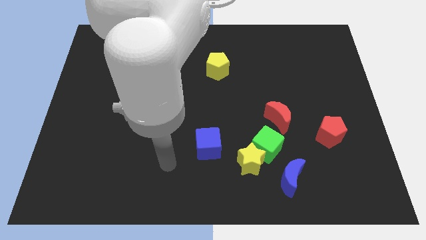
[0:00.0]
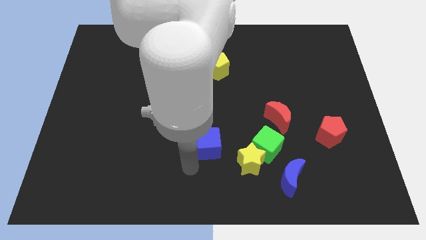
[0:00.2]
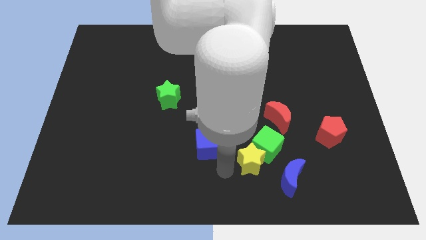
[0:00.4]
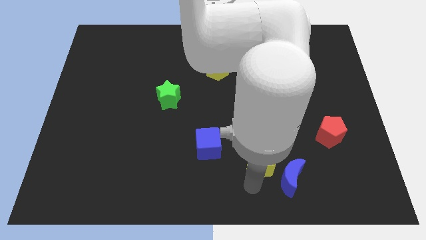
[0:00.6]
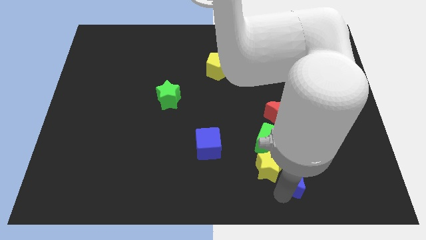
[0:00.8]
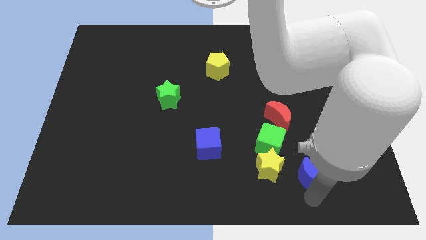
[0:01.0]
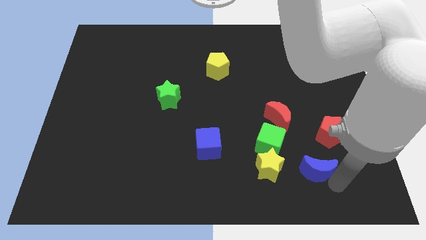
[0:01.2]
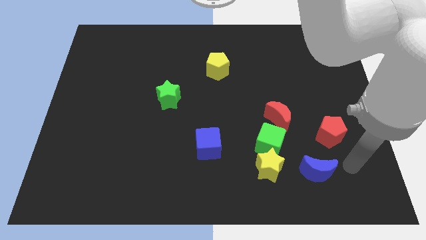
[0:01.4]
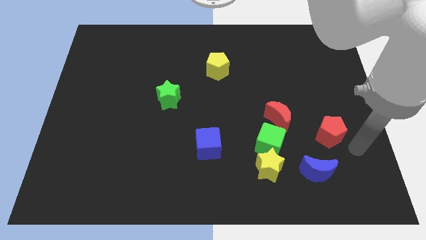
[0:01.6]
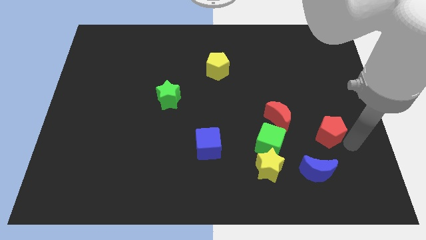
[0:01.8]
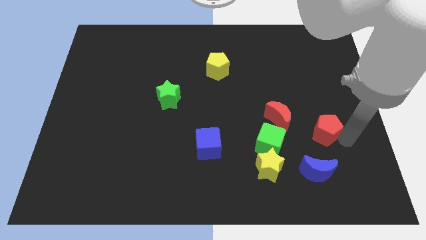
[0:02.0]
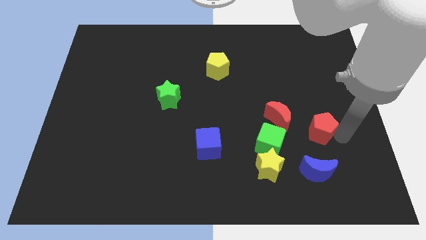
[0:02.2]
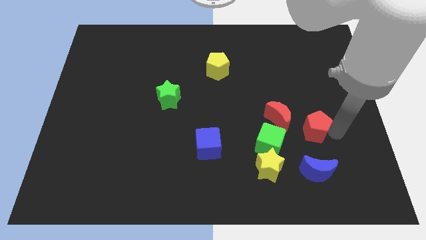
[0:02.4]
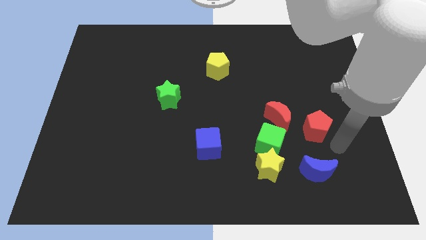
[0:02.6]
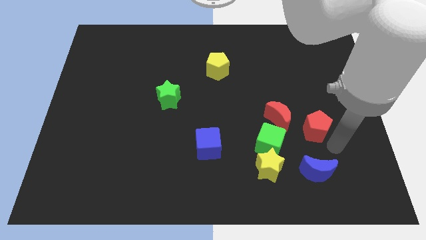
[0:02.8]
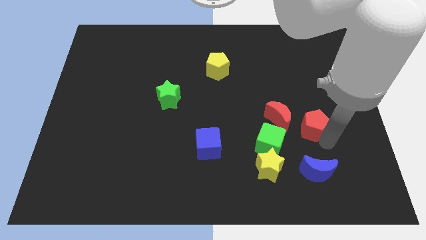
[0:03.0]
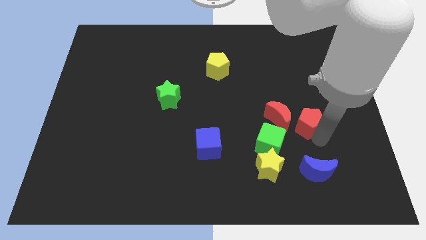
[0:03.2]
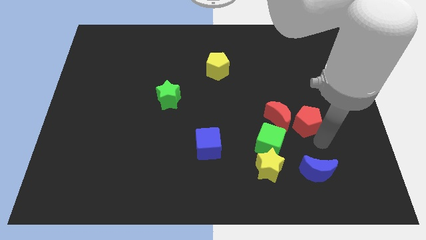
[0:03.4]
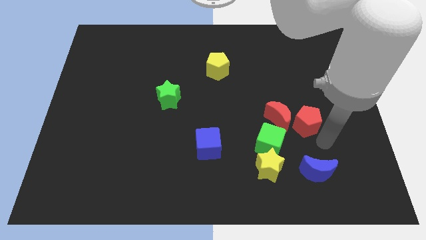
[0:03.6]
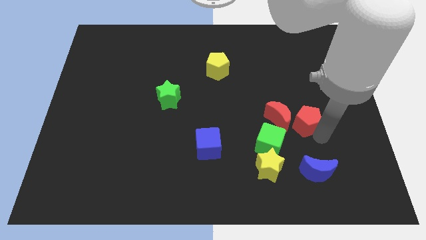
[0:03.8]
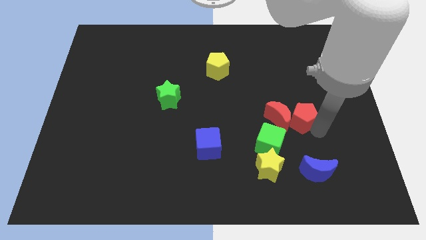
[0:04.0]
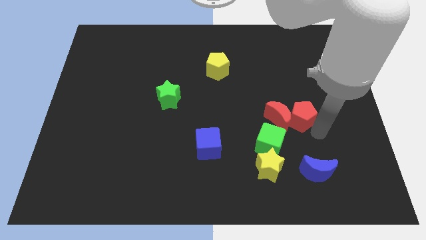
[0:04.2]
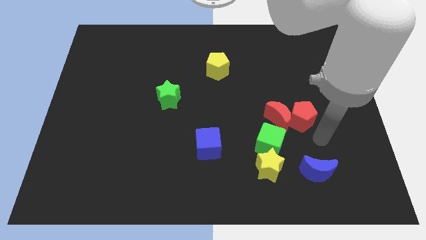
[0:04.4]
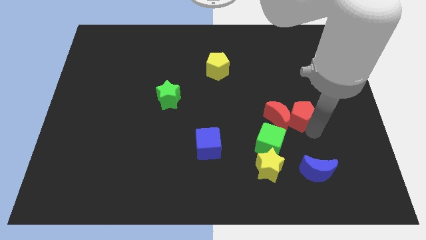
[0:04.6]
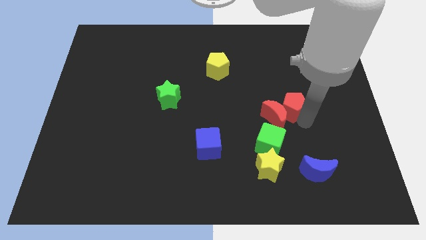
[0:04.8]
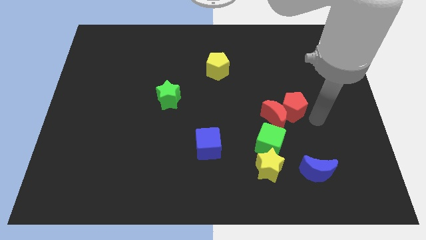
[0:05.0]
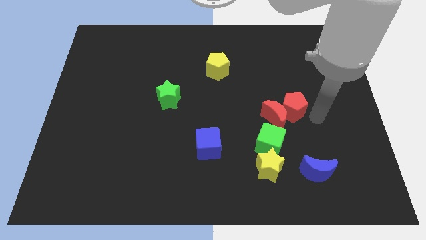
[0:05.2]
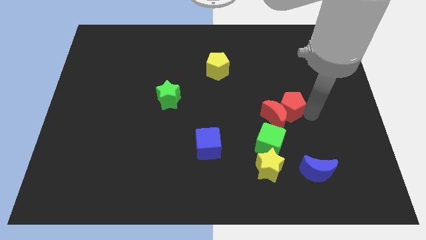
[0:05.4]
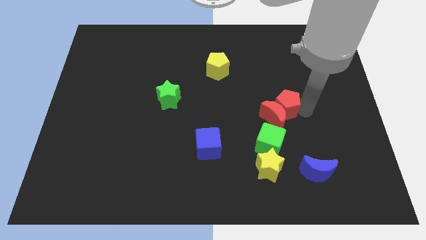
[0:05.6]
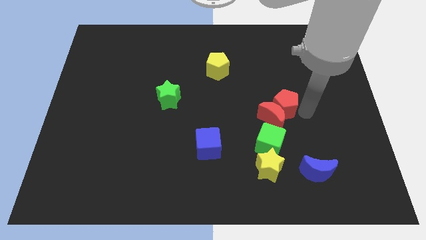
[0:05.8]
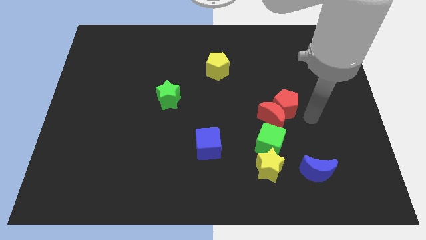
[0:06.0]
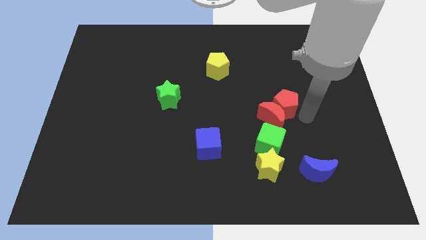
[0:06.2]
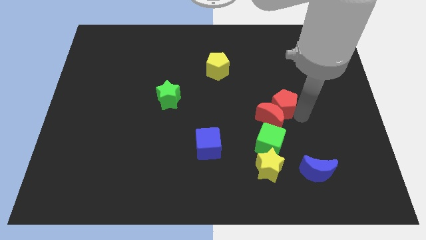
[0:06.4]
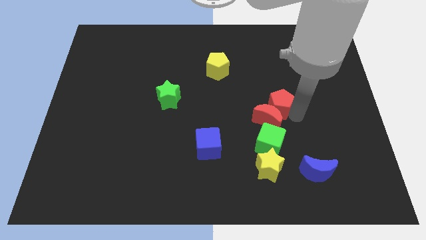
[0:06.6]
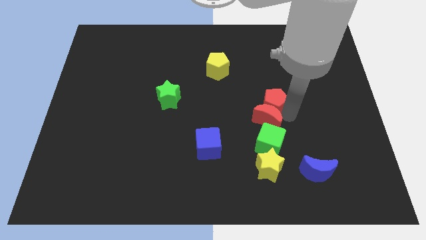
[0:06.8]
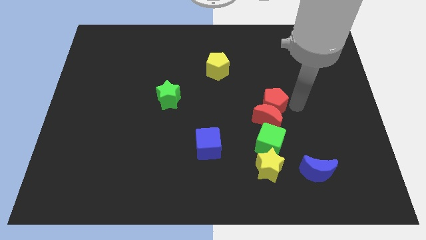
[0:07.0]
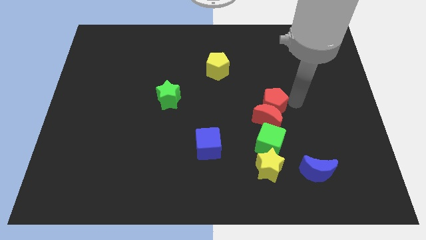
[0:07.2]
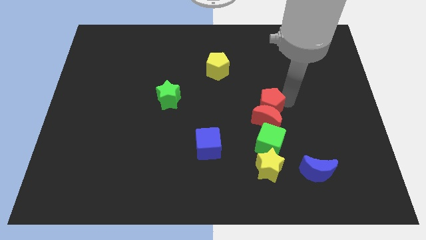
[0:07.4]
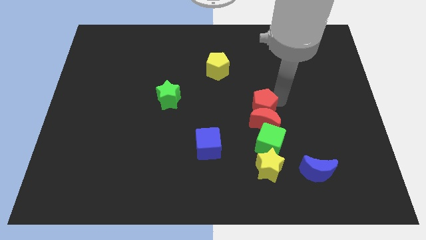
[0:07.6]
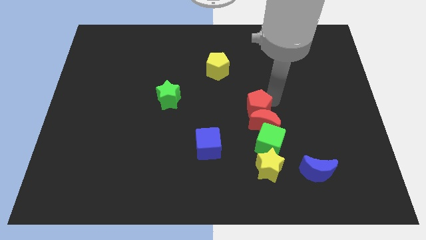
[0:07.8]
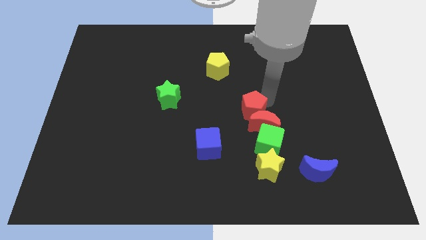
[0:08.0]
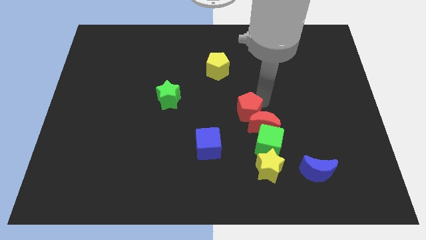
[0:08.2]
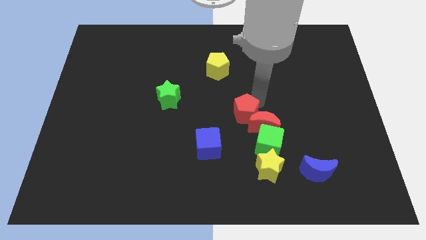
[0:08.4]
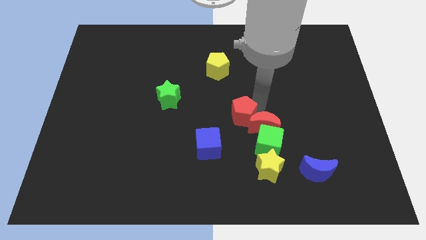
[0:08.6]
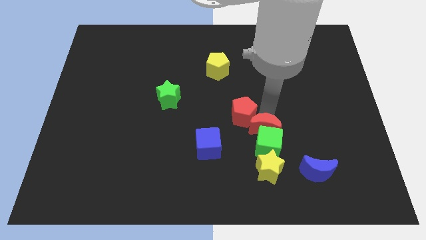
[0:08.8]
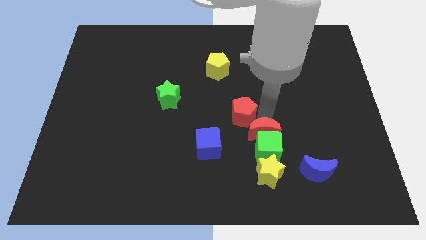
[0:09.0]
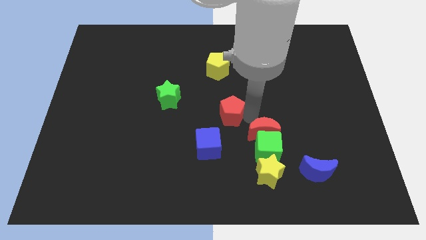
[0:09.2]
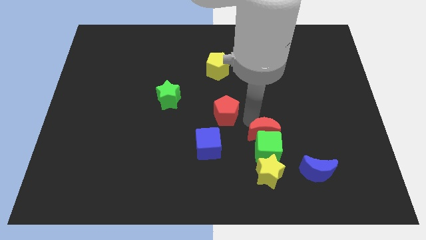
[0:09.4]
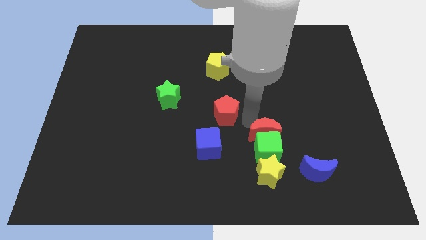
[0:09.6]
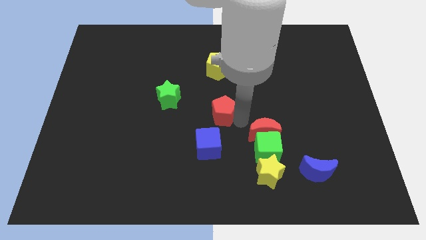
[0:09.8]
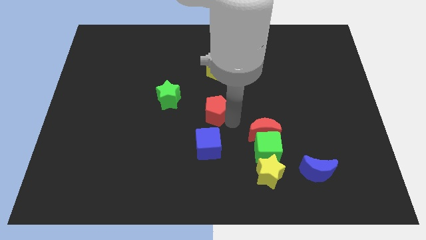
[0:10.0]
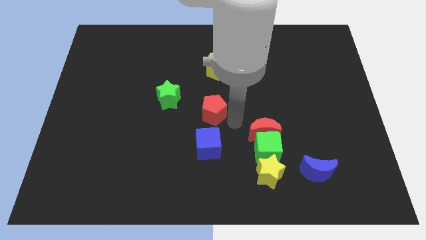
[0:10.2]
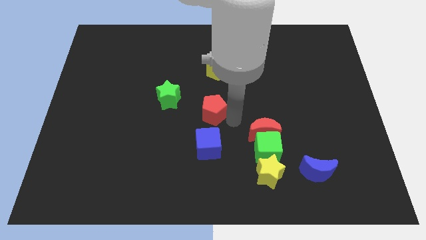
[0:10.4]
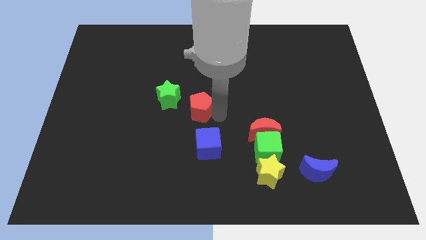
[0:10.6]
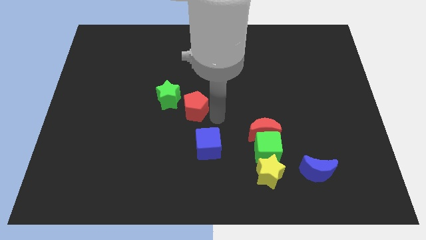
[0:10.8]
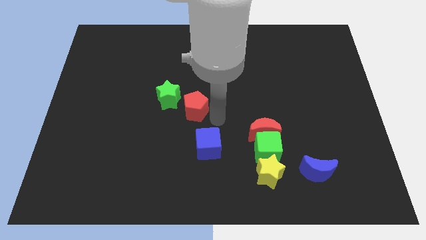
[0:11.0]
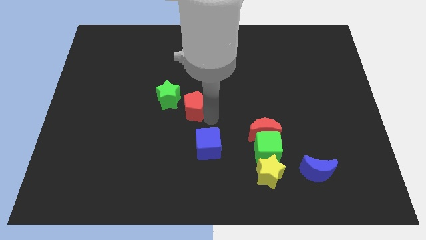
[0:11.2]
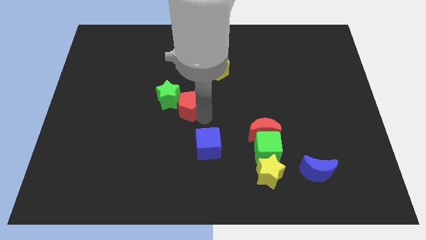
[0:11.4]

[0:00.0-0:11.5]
slide the red pentagon next to the green star

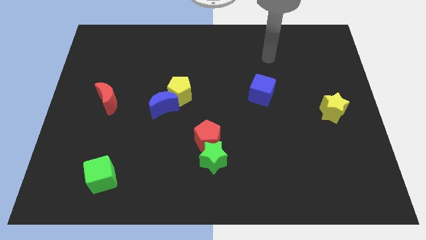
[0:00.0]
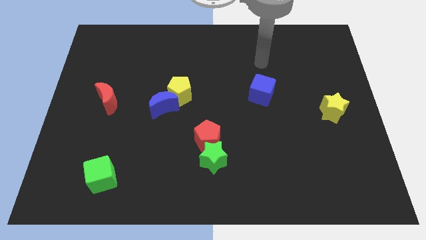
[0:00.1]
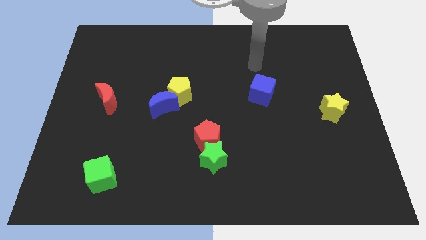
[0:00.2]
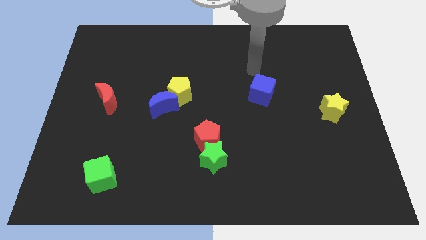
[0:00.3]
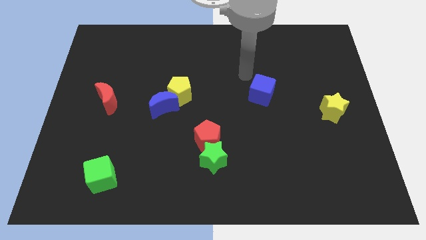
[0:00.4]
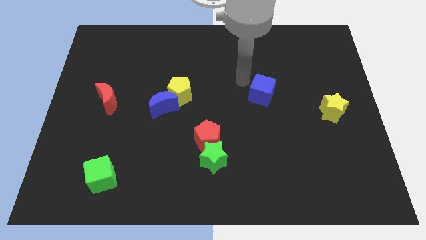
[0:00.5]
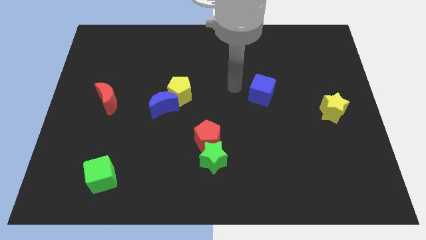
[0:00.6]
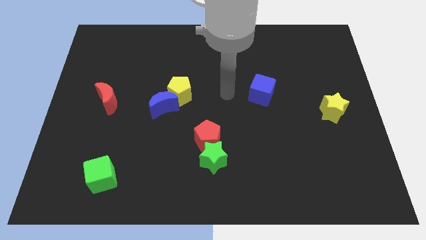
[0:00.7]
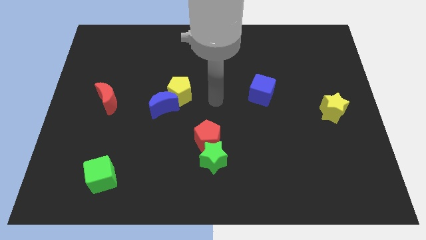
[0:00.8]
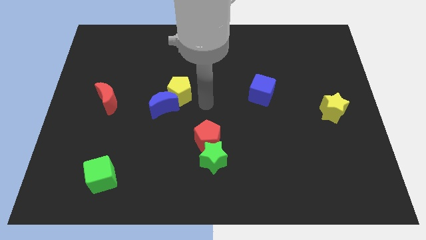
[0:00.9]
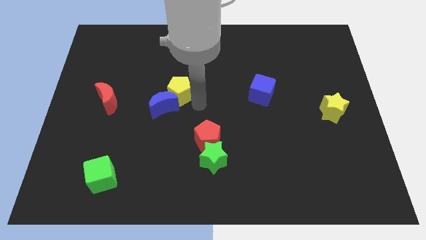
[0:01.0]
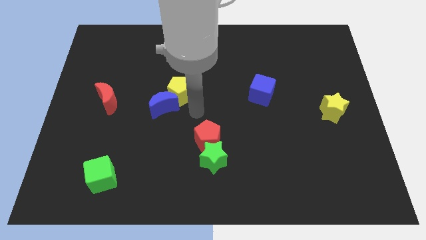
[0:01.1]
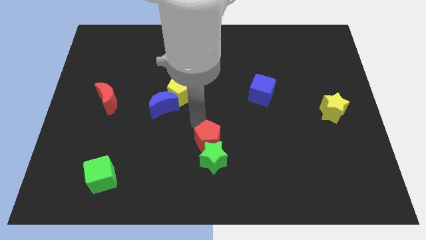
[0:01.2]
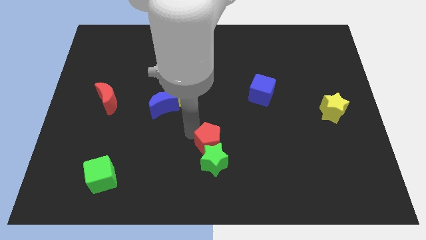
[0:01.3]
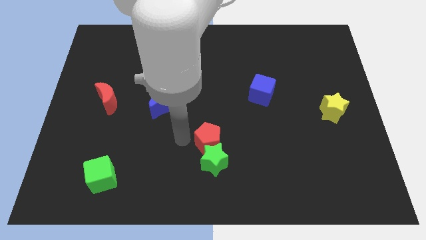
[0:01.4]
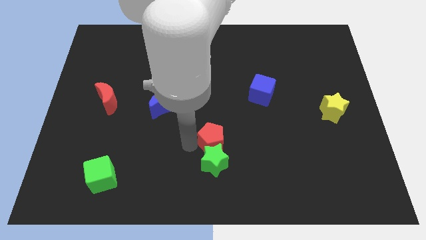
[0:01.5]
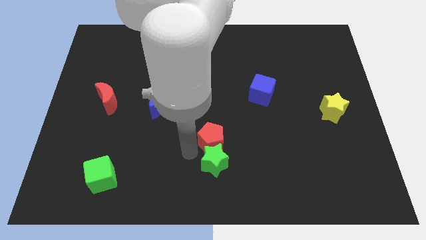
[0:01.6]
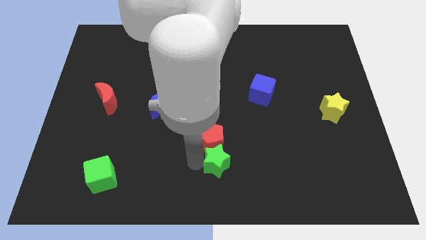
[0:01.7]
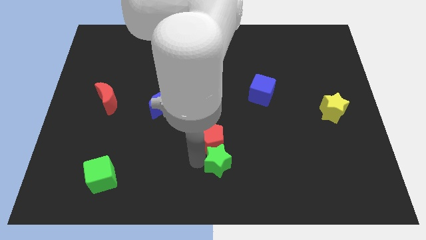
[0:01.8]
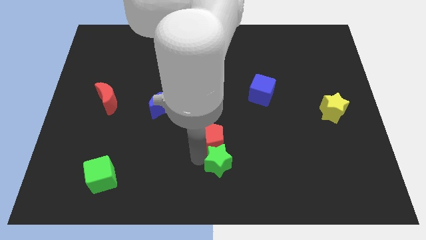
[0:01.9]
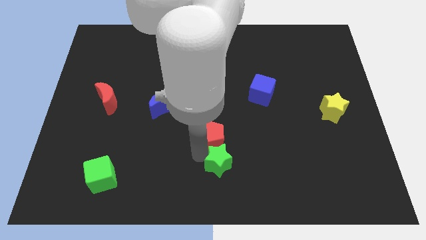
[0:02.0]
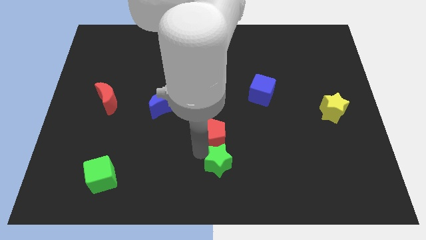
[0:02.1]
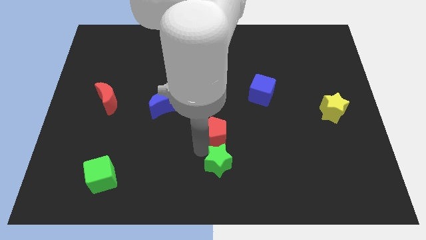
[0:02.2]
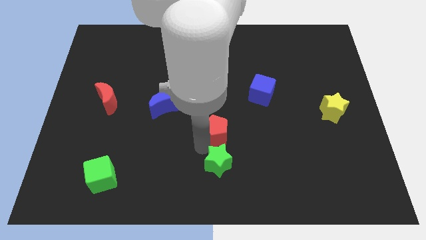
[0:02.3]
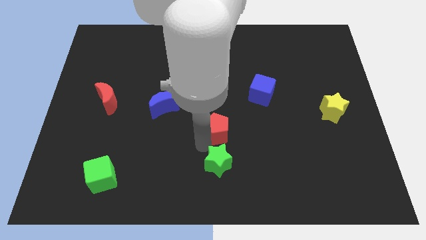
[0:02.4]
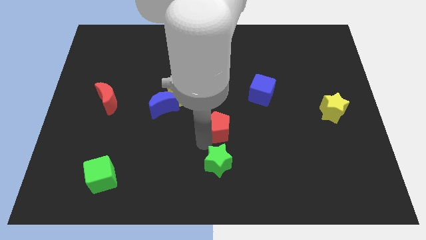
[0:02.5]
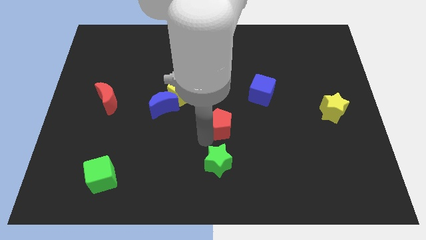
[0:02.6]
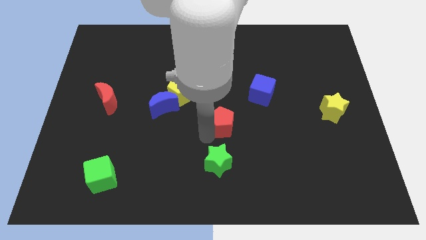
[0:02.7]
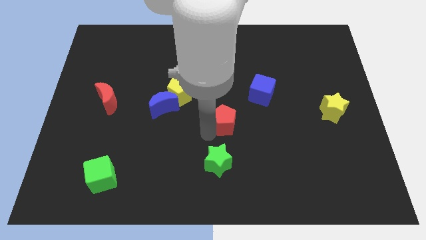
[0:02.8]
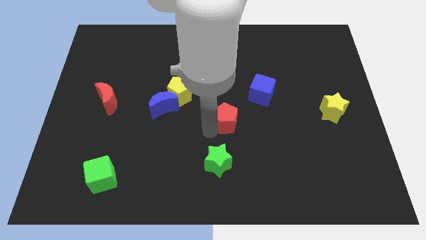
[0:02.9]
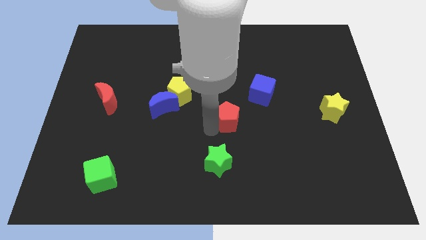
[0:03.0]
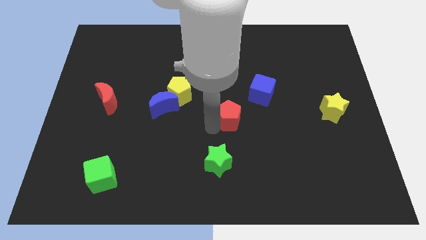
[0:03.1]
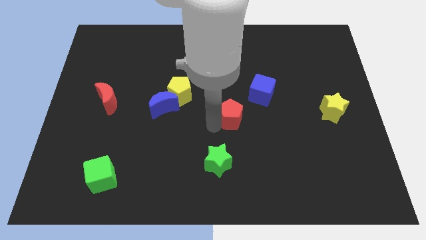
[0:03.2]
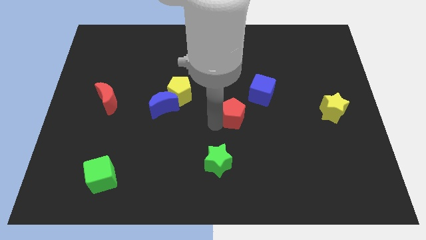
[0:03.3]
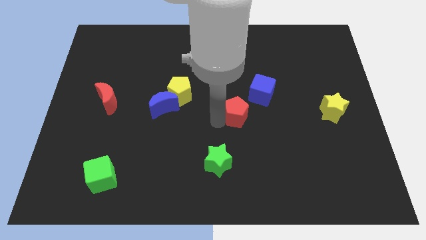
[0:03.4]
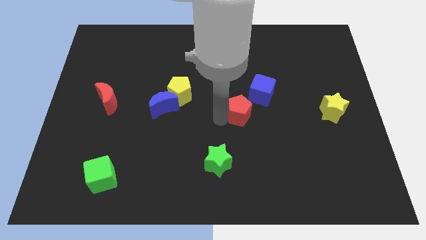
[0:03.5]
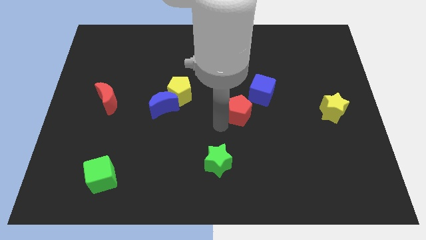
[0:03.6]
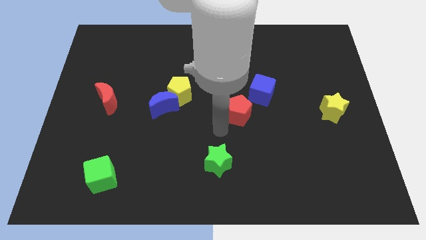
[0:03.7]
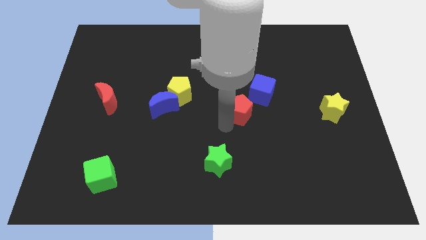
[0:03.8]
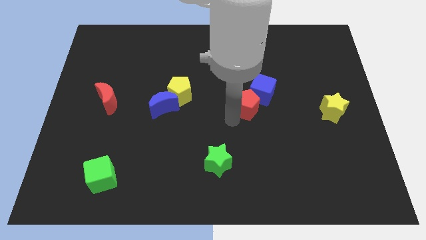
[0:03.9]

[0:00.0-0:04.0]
move the red pentagon to the blue cube
